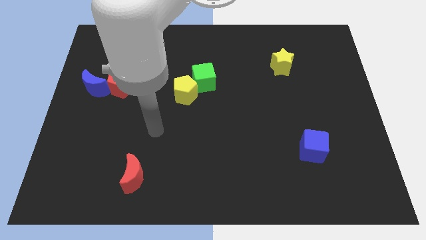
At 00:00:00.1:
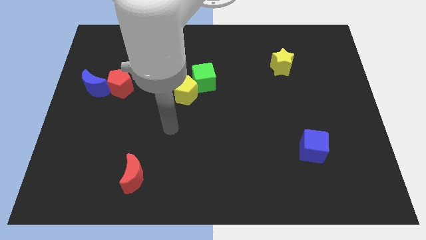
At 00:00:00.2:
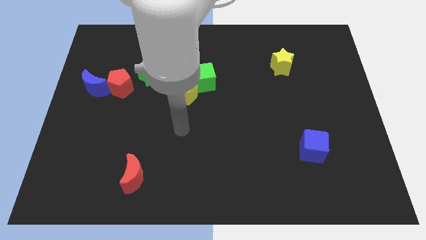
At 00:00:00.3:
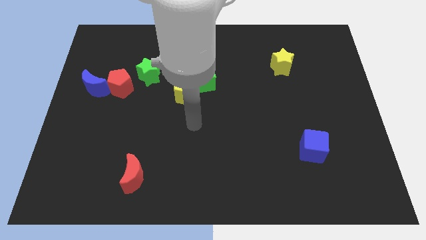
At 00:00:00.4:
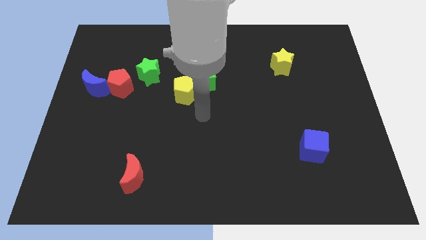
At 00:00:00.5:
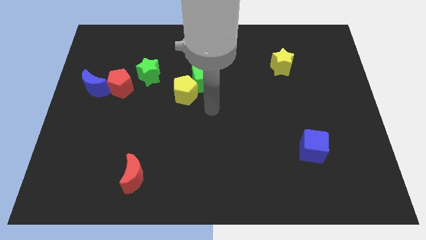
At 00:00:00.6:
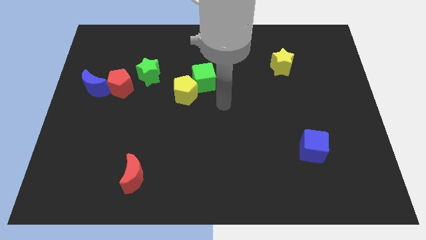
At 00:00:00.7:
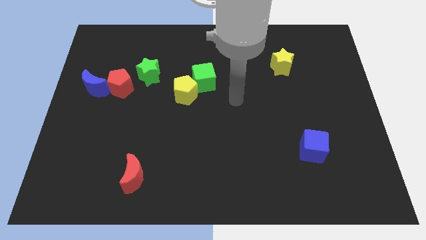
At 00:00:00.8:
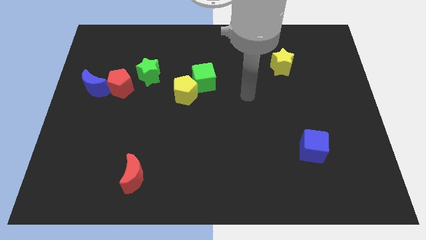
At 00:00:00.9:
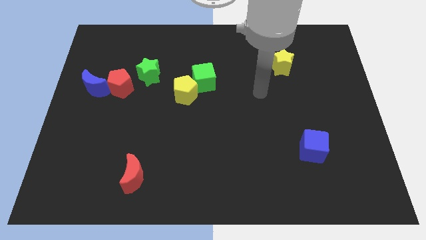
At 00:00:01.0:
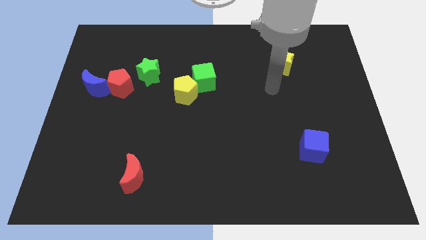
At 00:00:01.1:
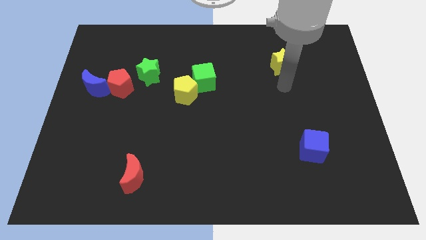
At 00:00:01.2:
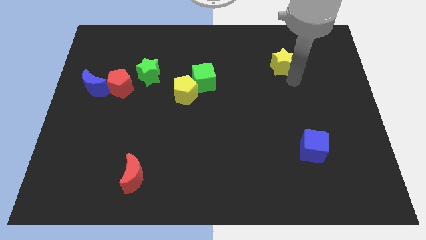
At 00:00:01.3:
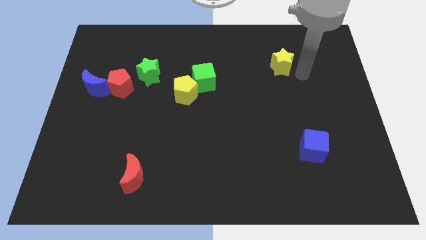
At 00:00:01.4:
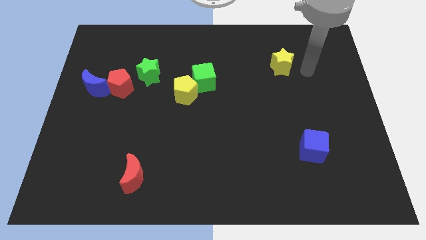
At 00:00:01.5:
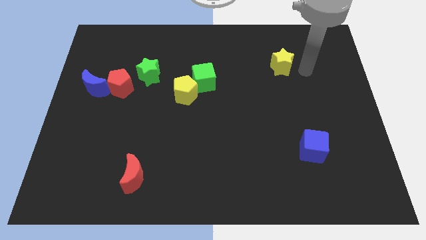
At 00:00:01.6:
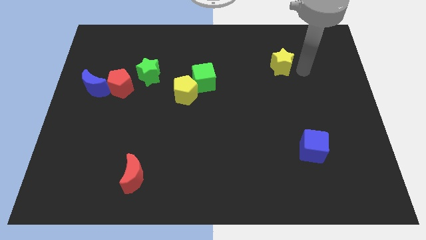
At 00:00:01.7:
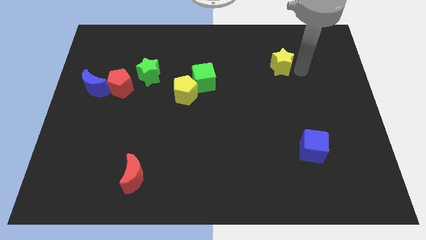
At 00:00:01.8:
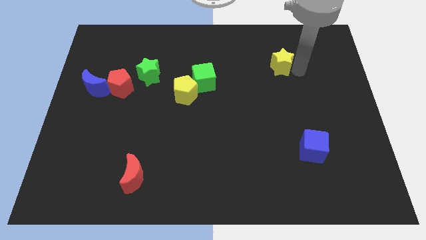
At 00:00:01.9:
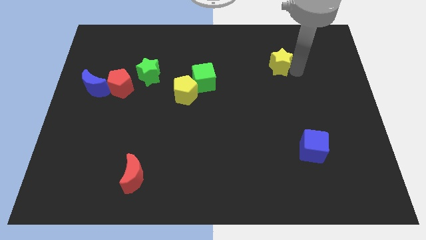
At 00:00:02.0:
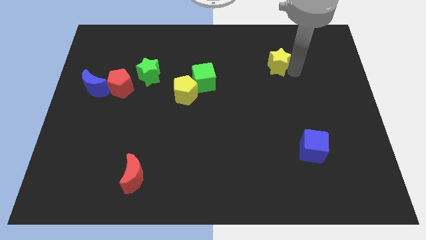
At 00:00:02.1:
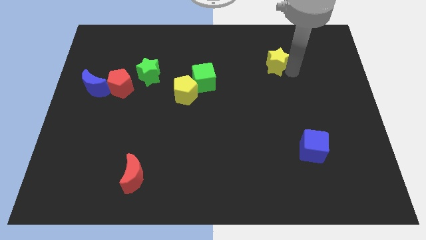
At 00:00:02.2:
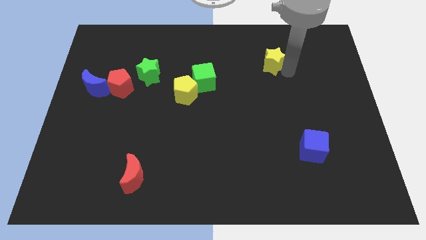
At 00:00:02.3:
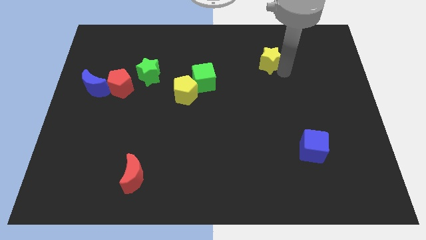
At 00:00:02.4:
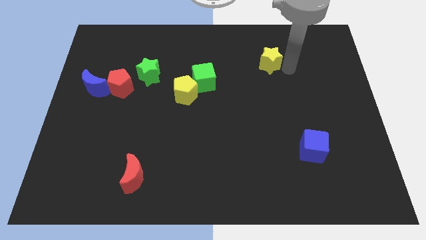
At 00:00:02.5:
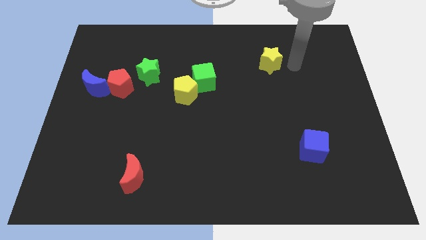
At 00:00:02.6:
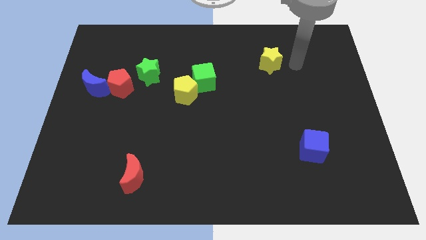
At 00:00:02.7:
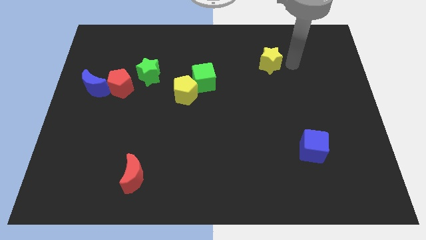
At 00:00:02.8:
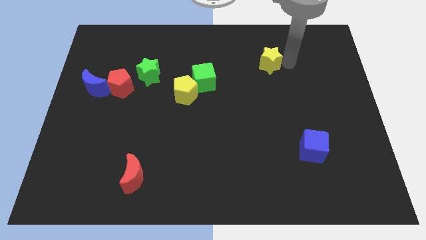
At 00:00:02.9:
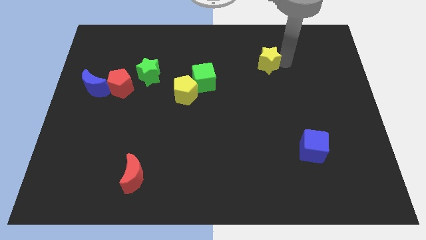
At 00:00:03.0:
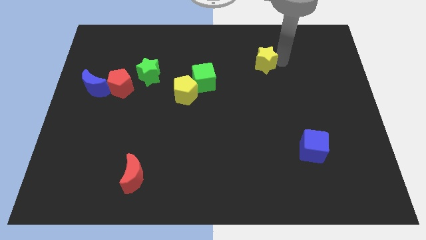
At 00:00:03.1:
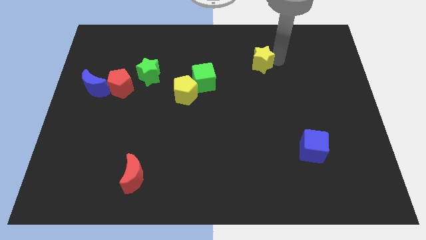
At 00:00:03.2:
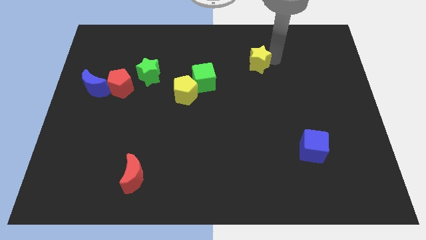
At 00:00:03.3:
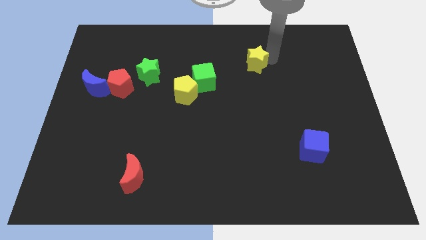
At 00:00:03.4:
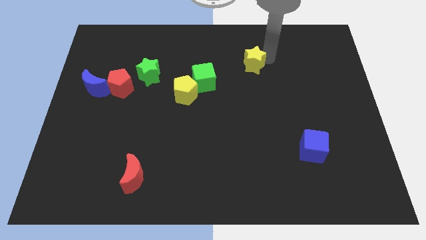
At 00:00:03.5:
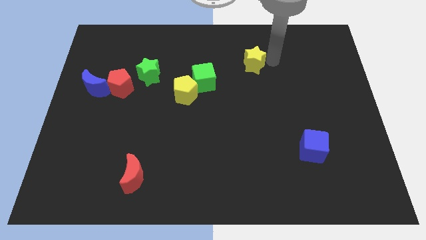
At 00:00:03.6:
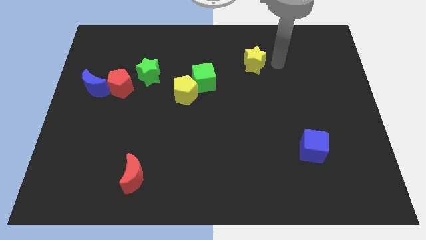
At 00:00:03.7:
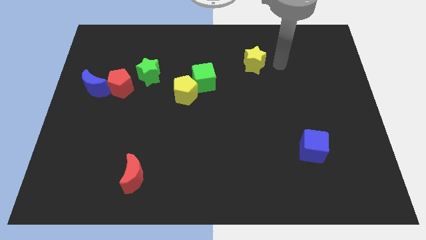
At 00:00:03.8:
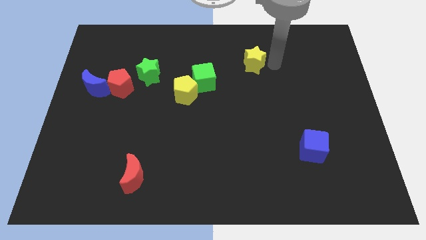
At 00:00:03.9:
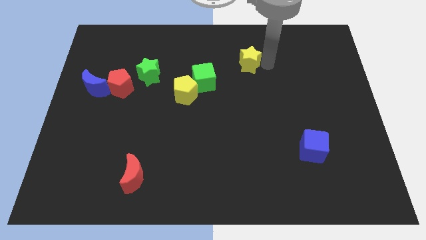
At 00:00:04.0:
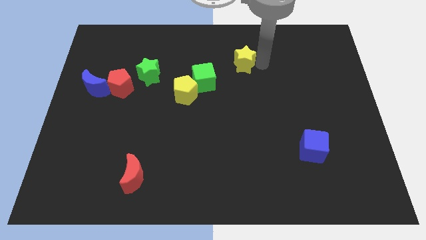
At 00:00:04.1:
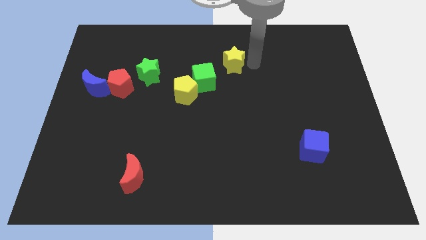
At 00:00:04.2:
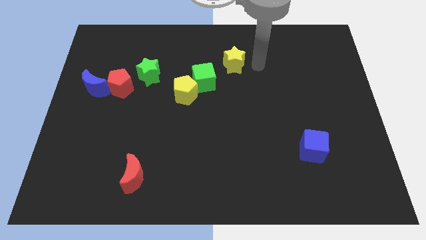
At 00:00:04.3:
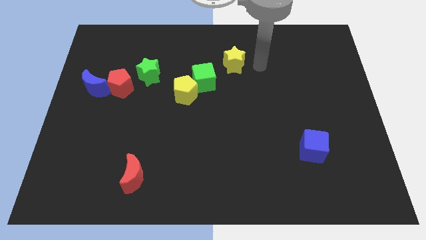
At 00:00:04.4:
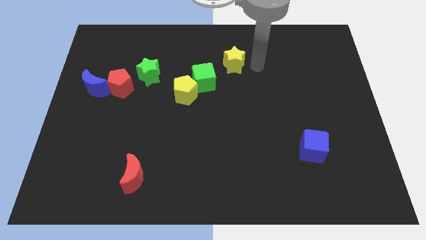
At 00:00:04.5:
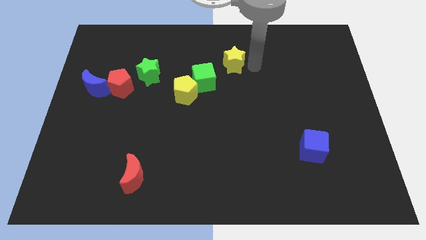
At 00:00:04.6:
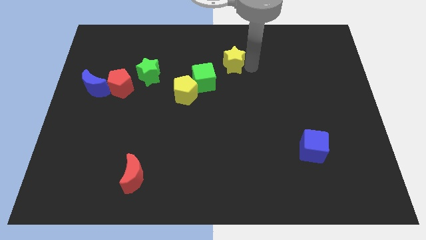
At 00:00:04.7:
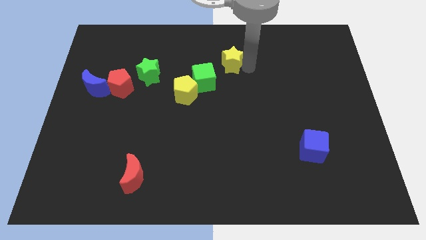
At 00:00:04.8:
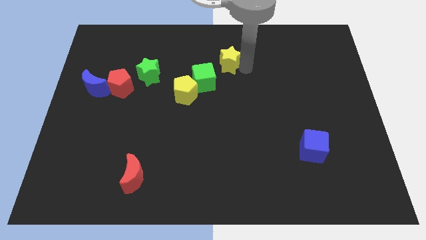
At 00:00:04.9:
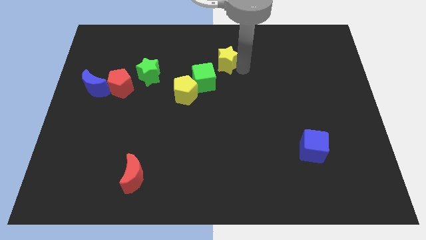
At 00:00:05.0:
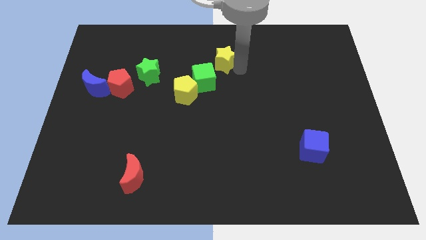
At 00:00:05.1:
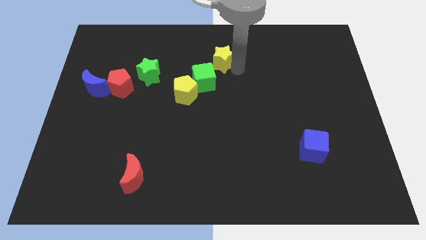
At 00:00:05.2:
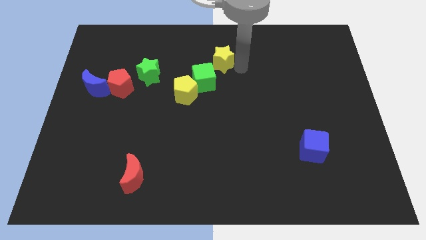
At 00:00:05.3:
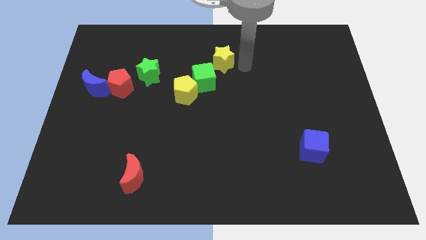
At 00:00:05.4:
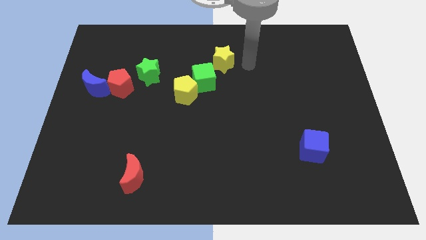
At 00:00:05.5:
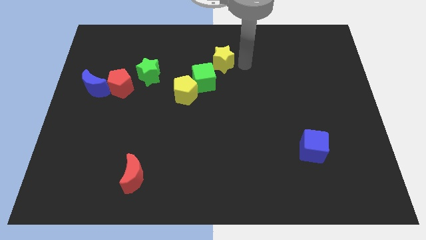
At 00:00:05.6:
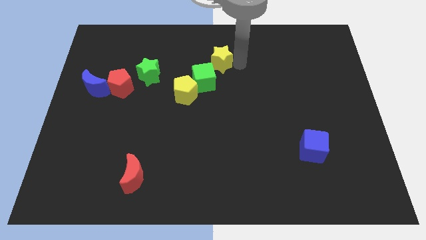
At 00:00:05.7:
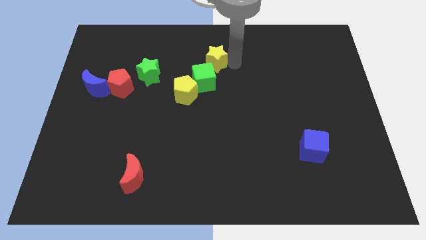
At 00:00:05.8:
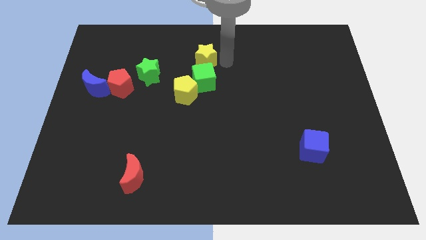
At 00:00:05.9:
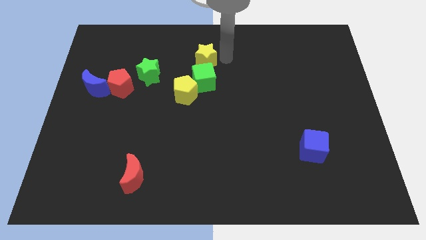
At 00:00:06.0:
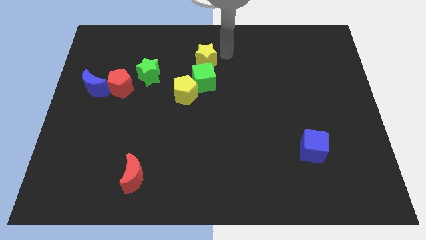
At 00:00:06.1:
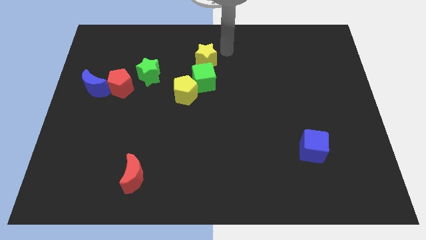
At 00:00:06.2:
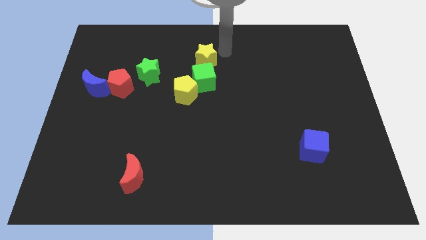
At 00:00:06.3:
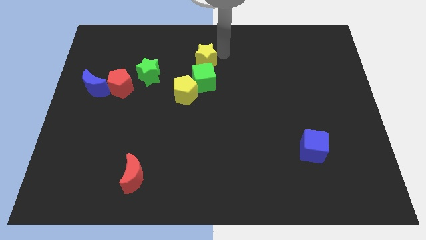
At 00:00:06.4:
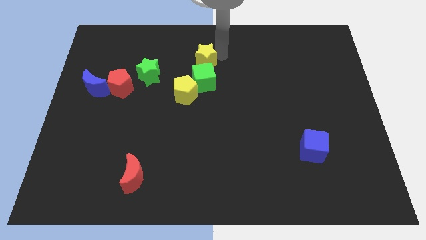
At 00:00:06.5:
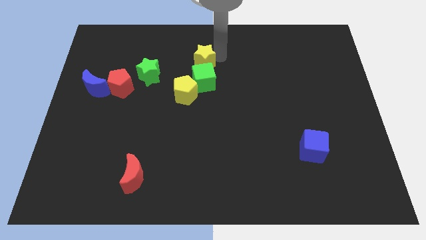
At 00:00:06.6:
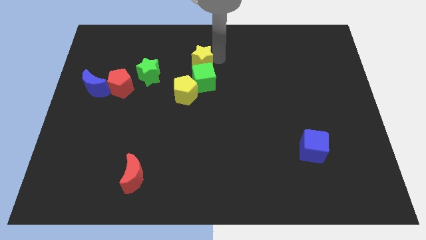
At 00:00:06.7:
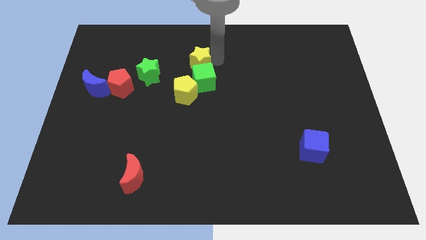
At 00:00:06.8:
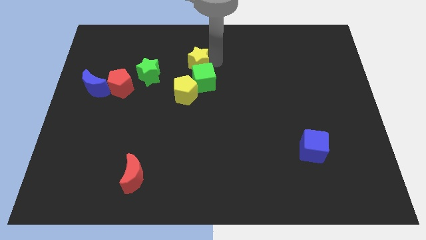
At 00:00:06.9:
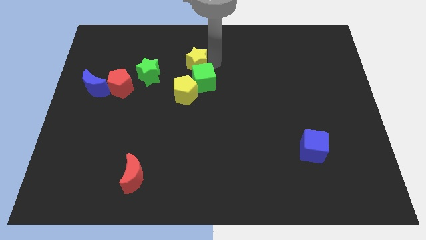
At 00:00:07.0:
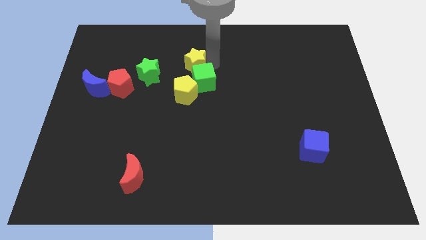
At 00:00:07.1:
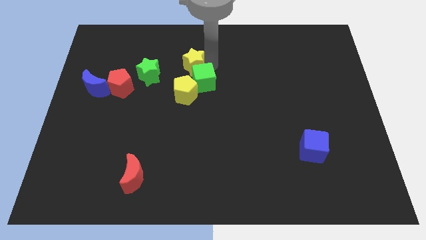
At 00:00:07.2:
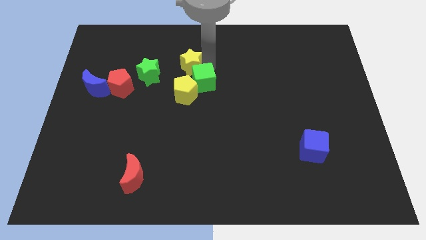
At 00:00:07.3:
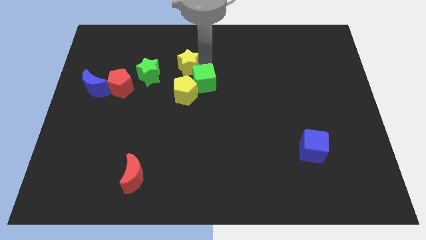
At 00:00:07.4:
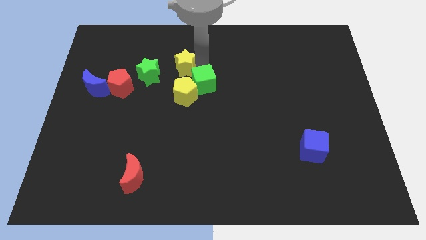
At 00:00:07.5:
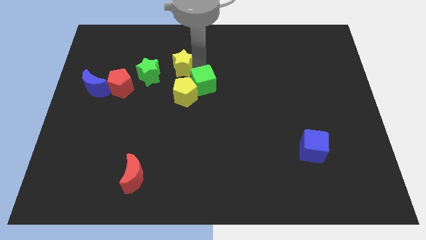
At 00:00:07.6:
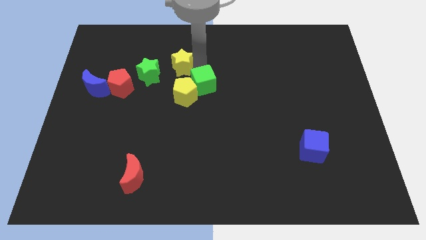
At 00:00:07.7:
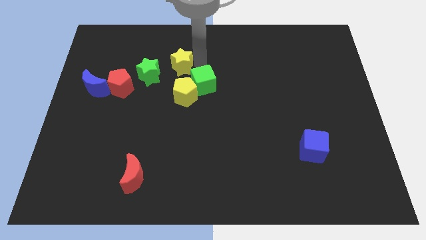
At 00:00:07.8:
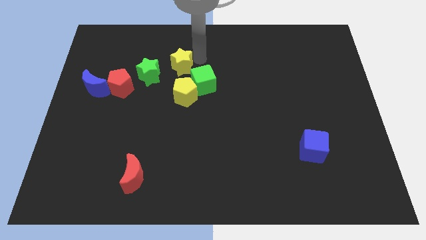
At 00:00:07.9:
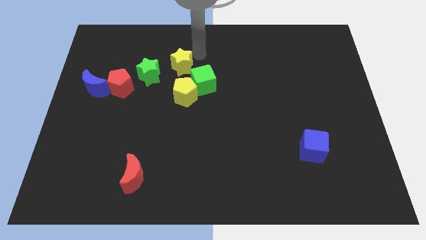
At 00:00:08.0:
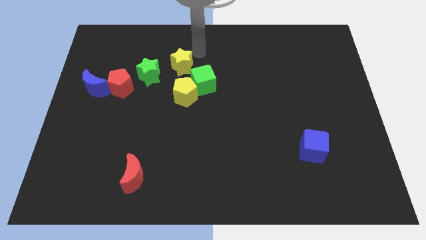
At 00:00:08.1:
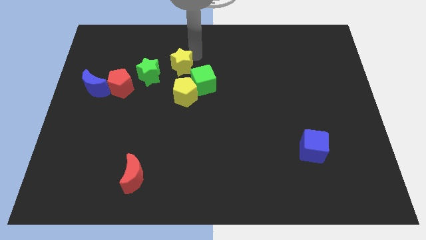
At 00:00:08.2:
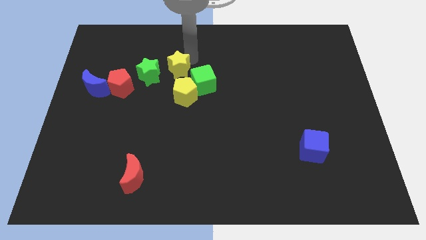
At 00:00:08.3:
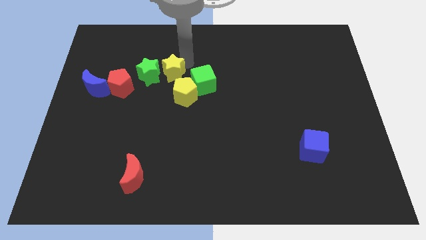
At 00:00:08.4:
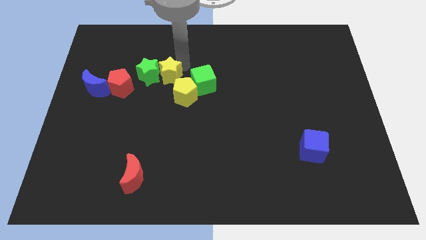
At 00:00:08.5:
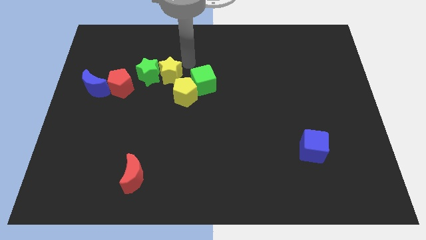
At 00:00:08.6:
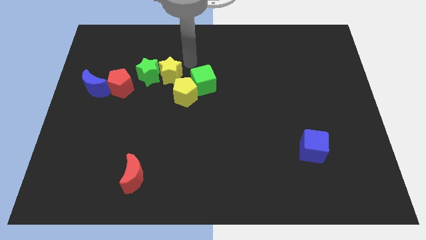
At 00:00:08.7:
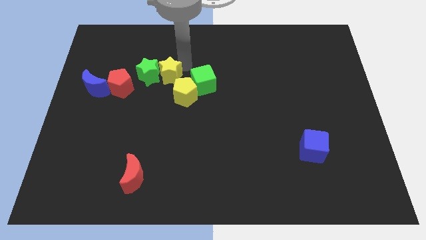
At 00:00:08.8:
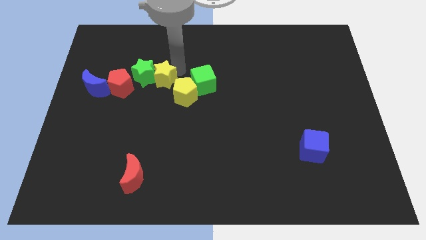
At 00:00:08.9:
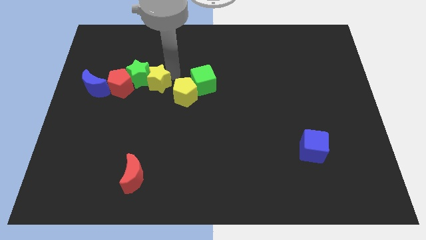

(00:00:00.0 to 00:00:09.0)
push the yellow star to the left side of the yellow pentagon
